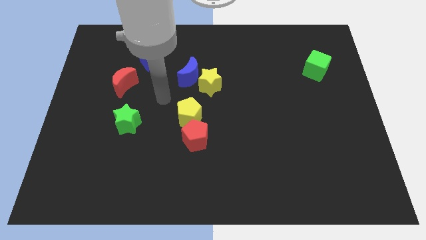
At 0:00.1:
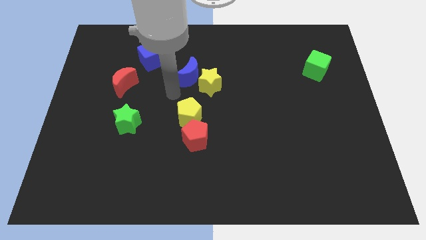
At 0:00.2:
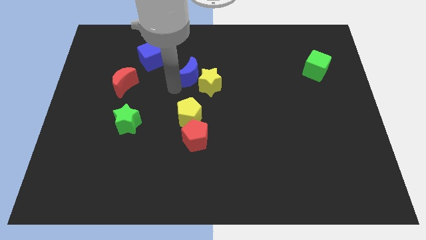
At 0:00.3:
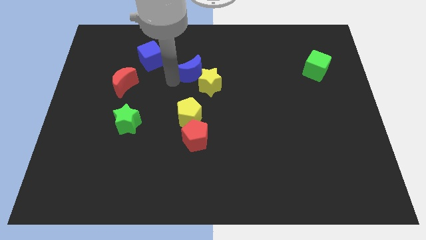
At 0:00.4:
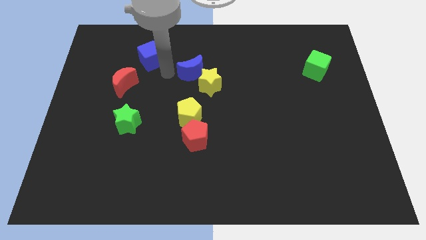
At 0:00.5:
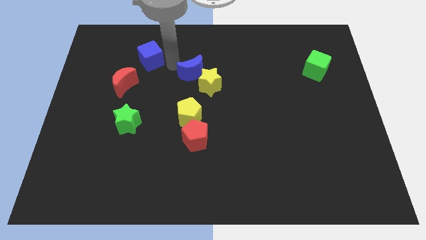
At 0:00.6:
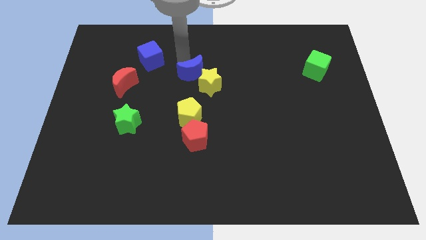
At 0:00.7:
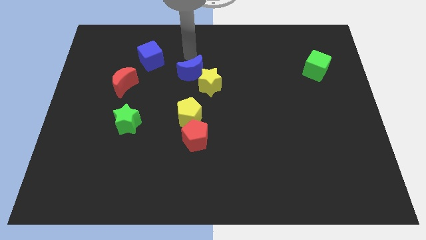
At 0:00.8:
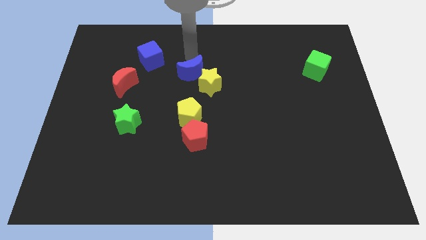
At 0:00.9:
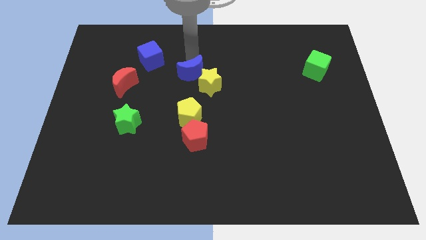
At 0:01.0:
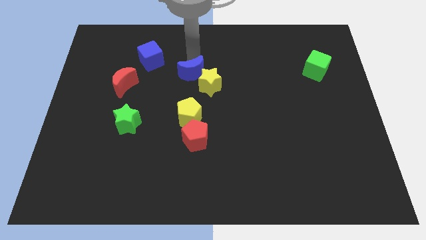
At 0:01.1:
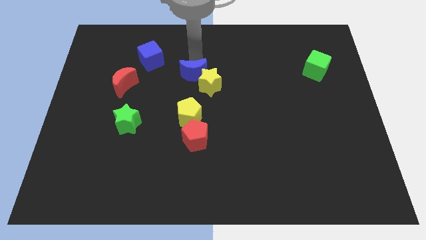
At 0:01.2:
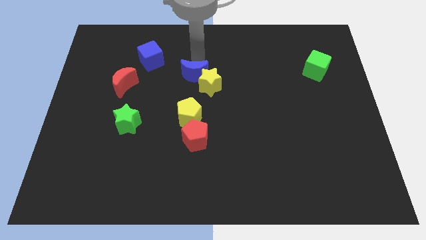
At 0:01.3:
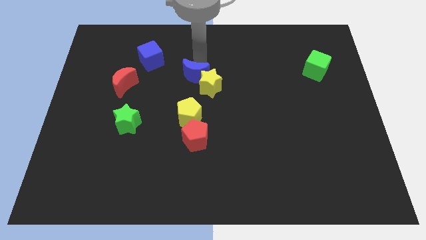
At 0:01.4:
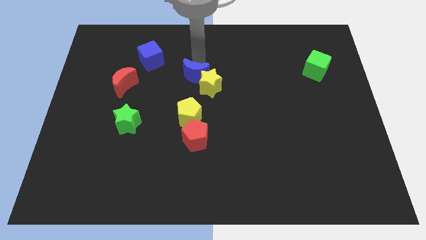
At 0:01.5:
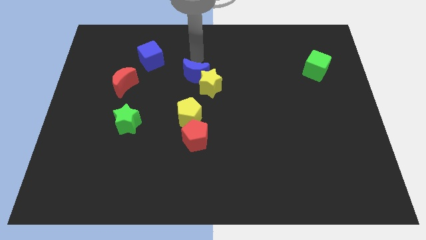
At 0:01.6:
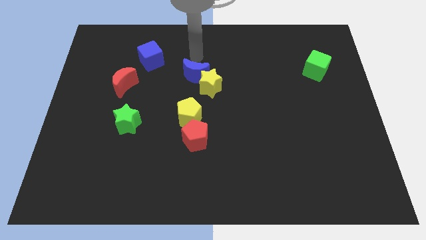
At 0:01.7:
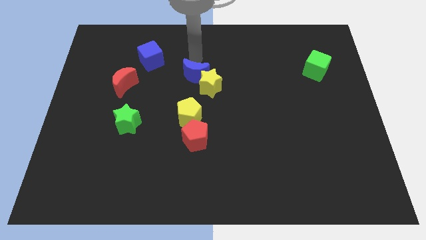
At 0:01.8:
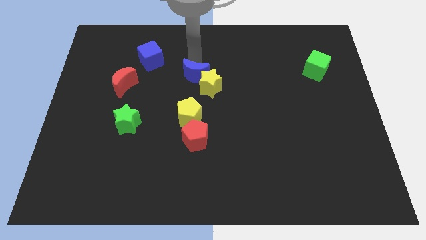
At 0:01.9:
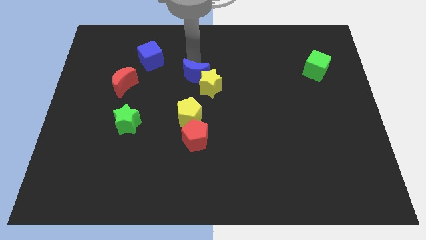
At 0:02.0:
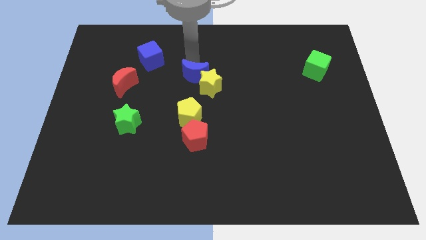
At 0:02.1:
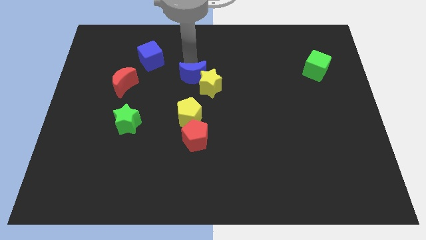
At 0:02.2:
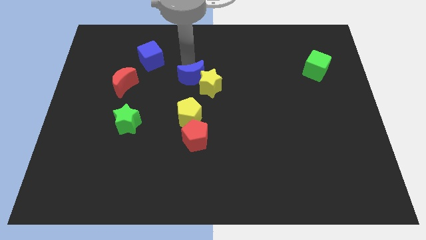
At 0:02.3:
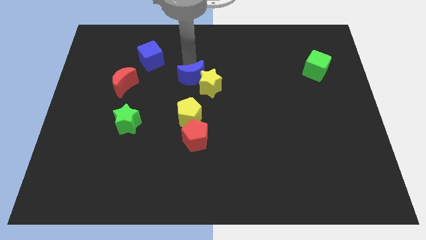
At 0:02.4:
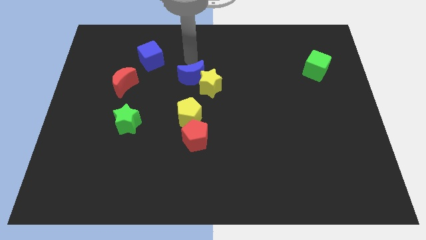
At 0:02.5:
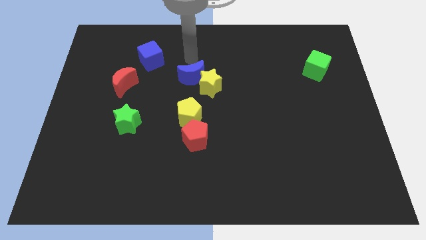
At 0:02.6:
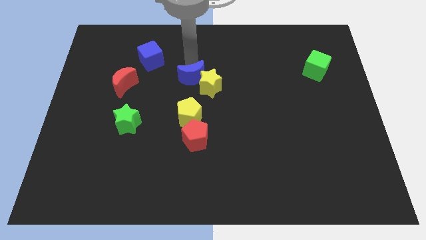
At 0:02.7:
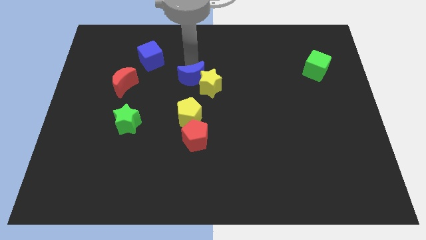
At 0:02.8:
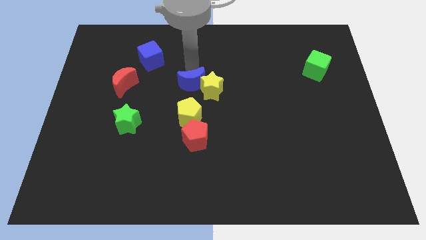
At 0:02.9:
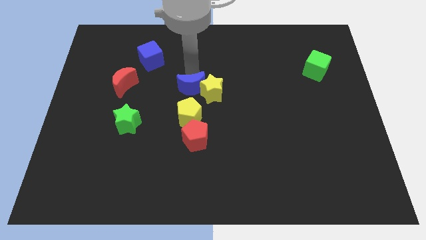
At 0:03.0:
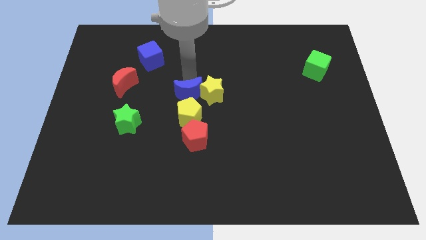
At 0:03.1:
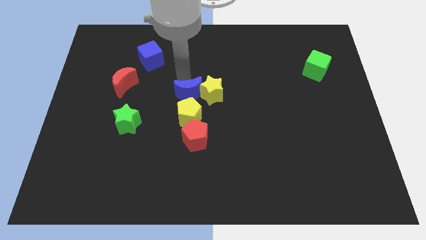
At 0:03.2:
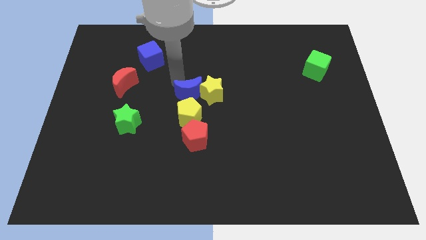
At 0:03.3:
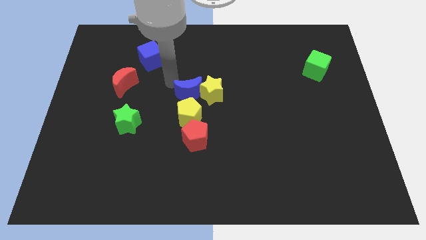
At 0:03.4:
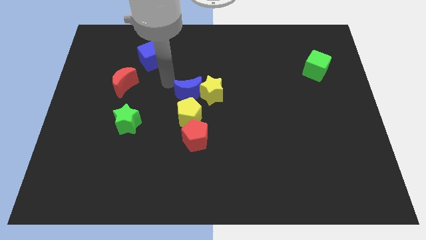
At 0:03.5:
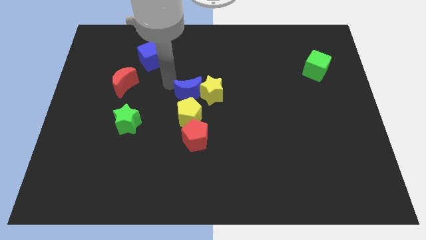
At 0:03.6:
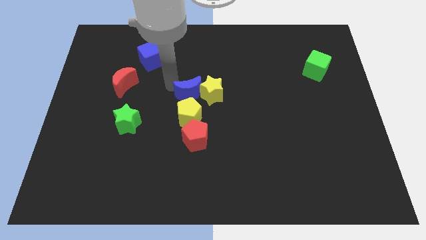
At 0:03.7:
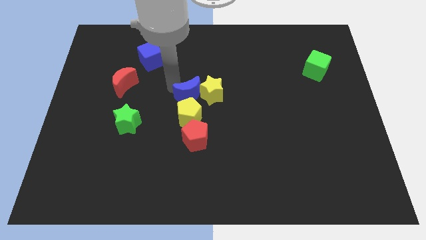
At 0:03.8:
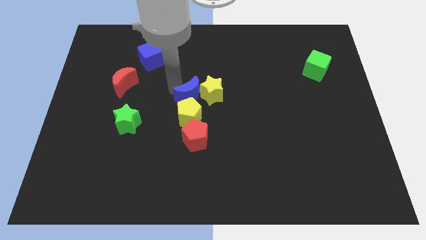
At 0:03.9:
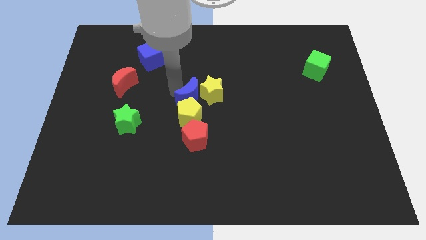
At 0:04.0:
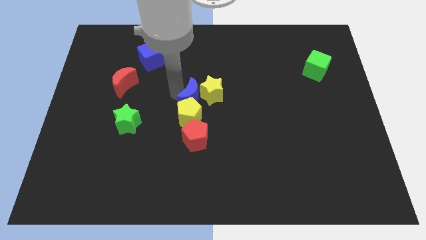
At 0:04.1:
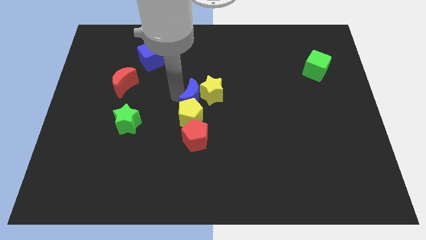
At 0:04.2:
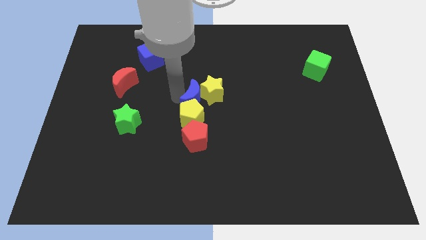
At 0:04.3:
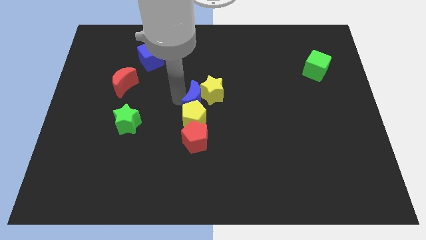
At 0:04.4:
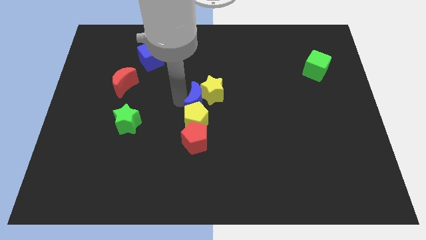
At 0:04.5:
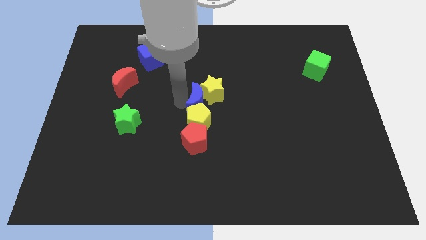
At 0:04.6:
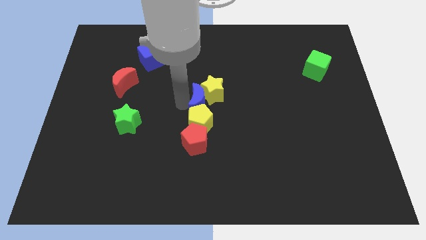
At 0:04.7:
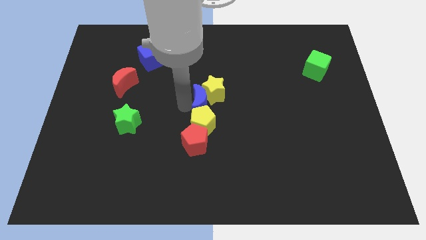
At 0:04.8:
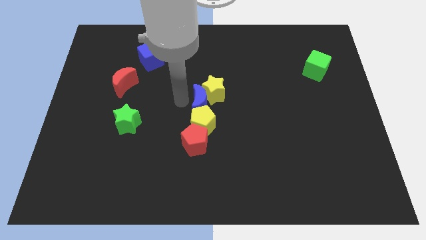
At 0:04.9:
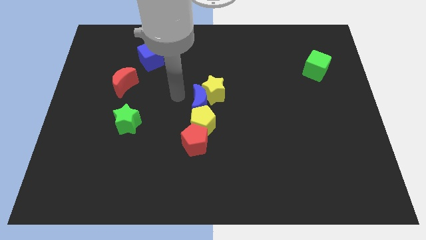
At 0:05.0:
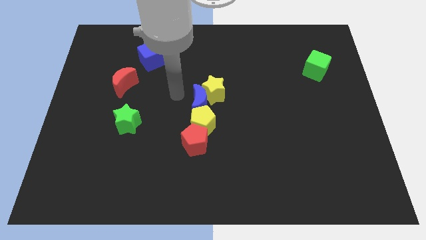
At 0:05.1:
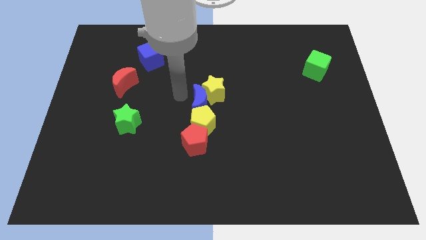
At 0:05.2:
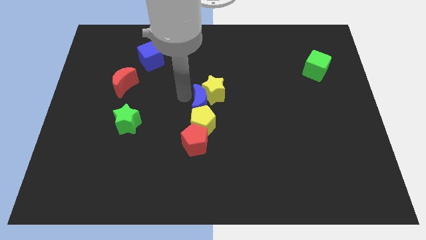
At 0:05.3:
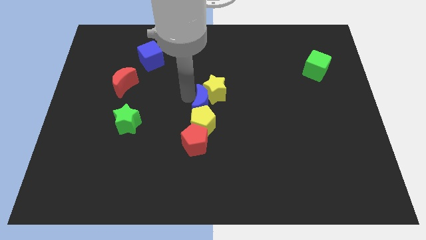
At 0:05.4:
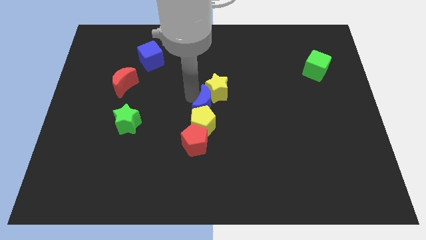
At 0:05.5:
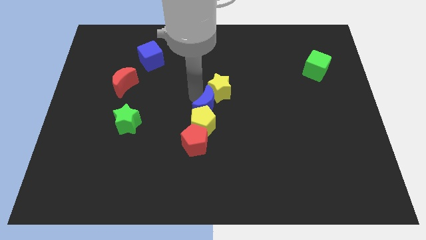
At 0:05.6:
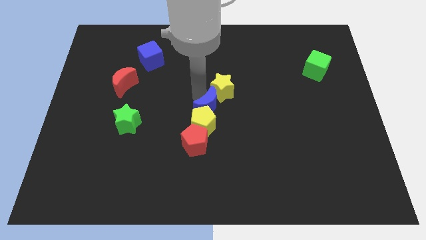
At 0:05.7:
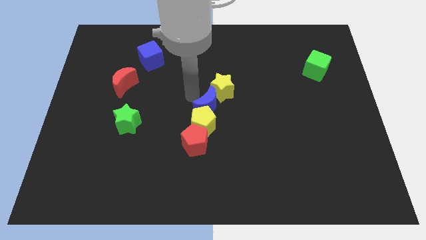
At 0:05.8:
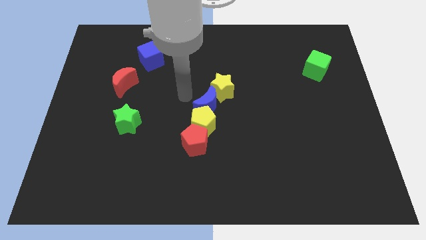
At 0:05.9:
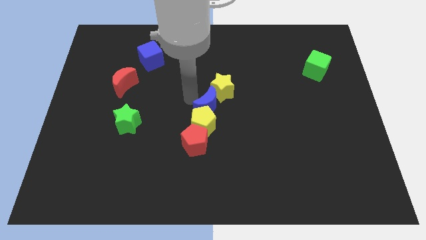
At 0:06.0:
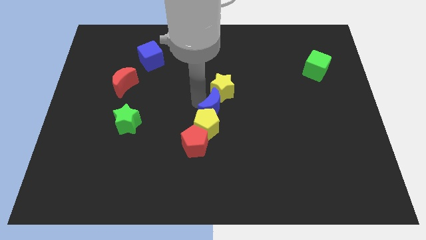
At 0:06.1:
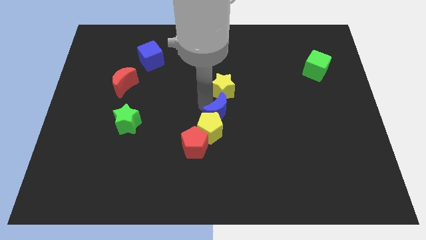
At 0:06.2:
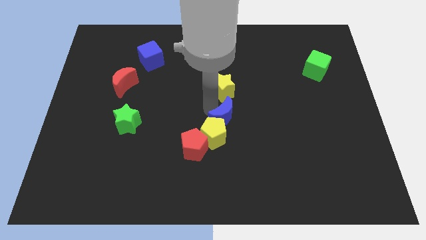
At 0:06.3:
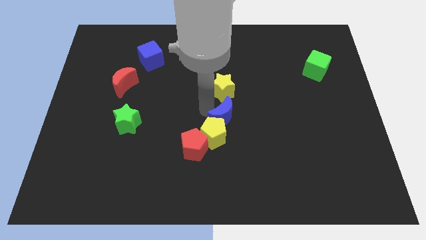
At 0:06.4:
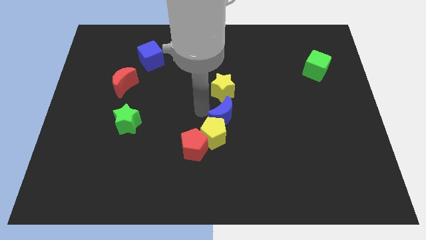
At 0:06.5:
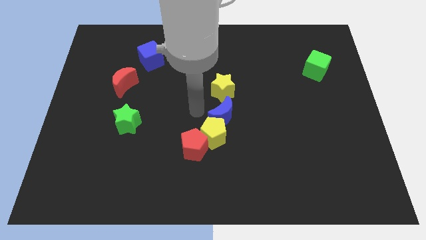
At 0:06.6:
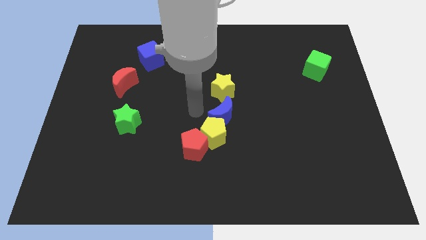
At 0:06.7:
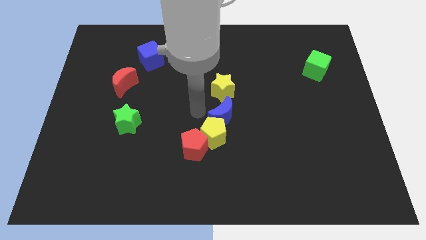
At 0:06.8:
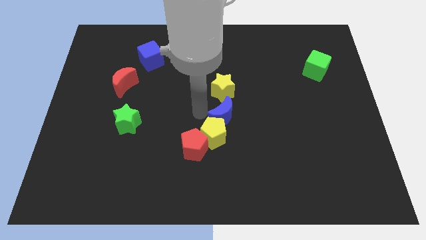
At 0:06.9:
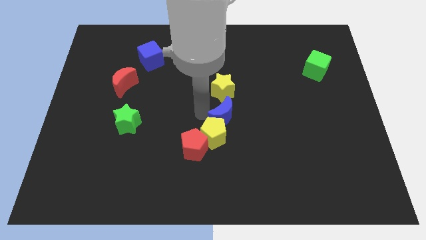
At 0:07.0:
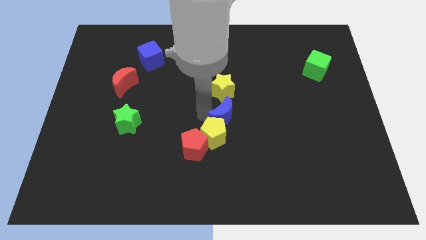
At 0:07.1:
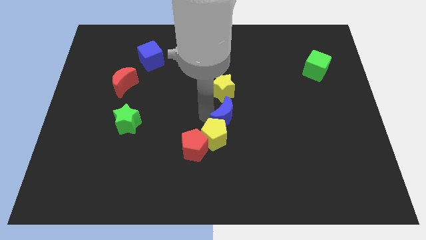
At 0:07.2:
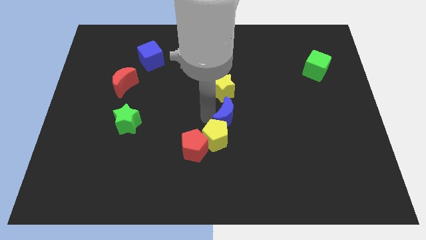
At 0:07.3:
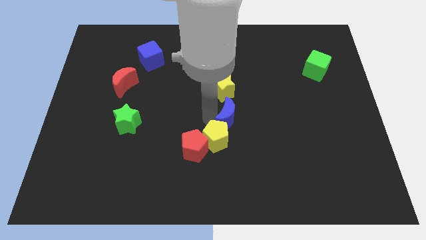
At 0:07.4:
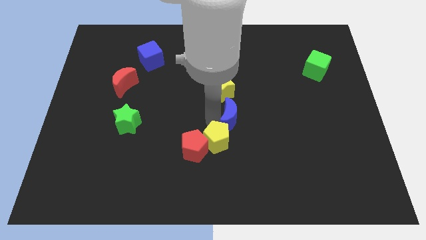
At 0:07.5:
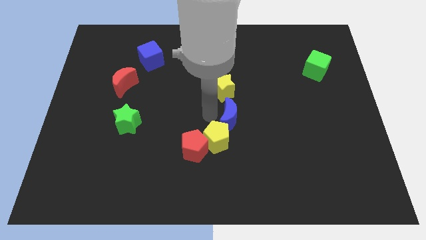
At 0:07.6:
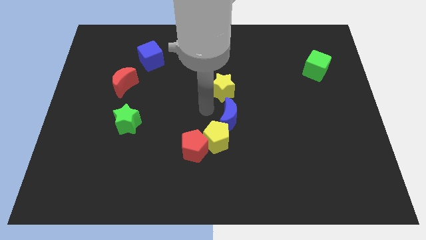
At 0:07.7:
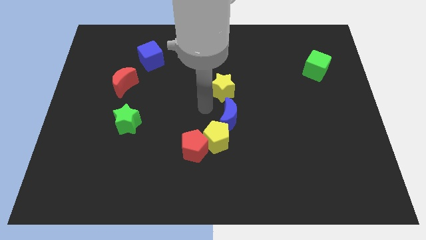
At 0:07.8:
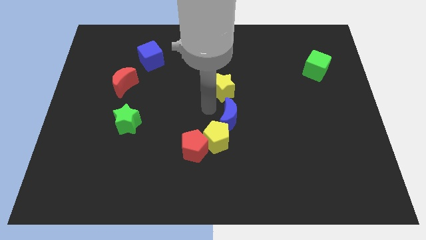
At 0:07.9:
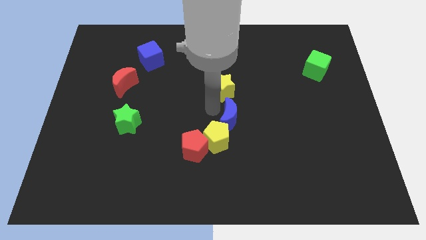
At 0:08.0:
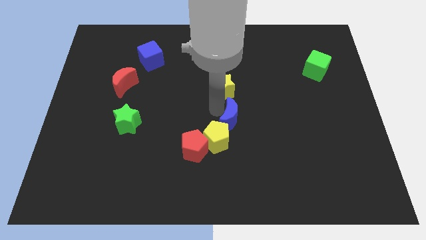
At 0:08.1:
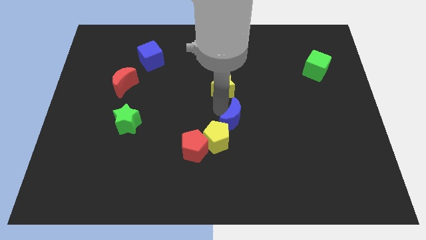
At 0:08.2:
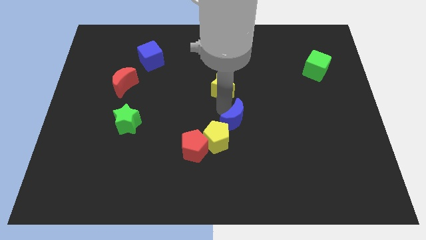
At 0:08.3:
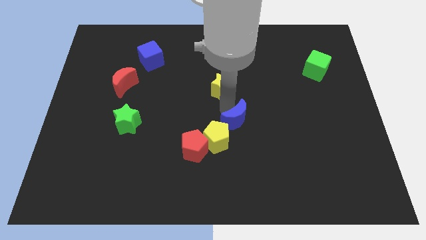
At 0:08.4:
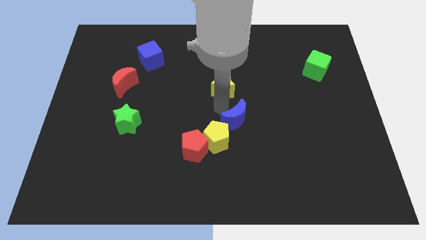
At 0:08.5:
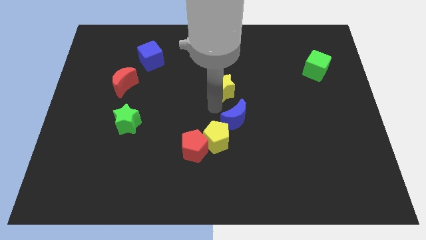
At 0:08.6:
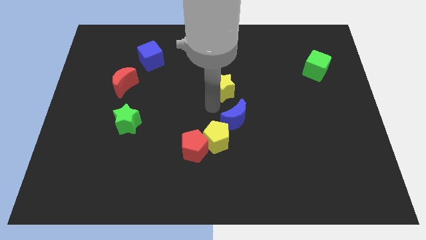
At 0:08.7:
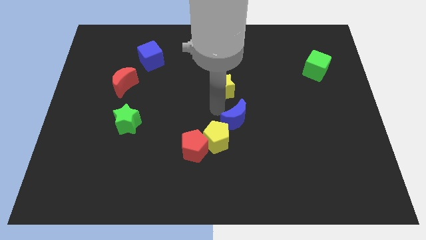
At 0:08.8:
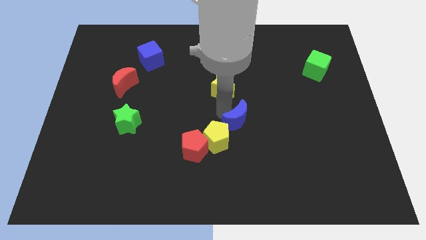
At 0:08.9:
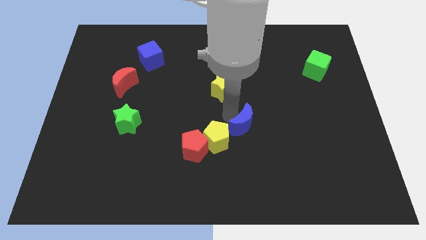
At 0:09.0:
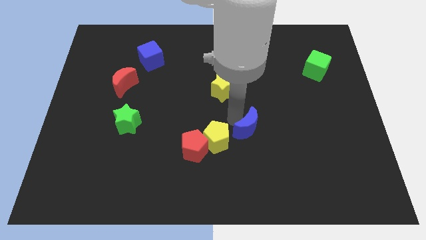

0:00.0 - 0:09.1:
push the blue moon diagonally downwards and to the right
